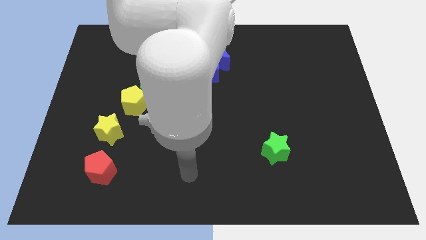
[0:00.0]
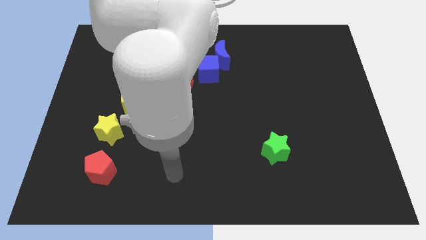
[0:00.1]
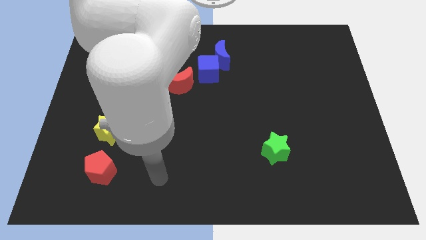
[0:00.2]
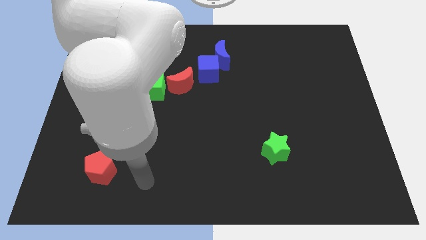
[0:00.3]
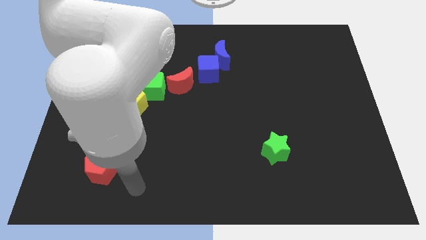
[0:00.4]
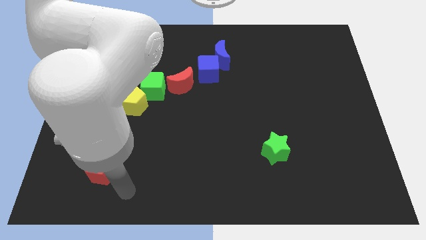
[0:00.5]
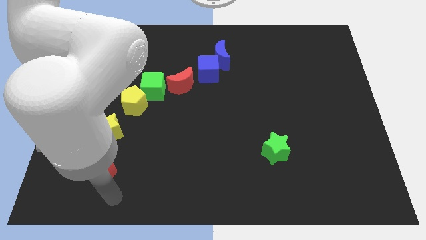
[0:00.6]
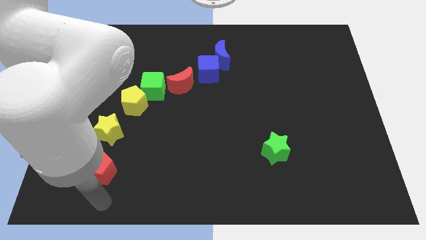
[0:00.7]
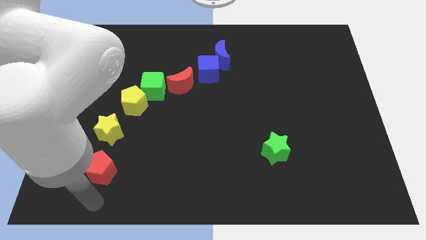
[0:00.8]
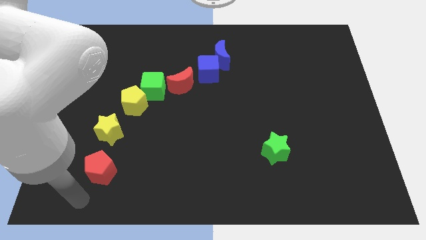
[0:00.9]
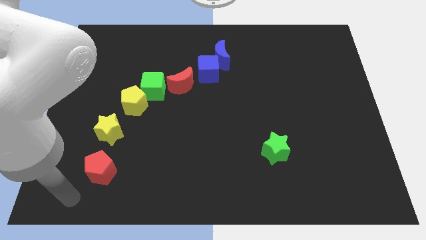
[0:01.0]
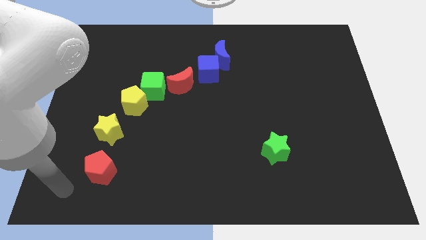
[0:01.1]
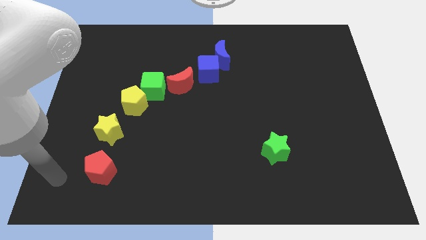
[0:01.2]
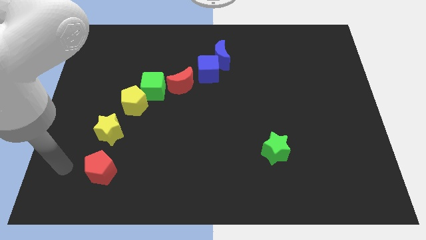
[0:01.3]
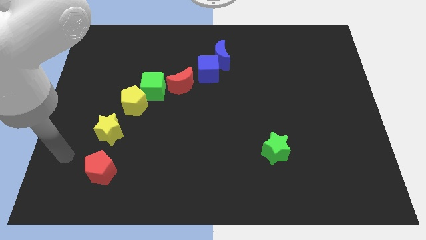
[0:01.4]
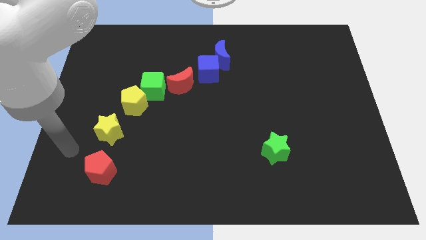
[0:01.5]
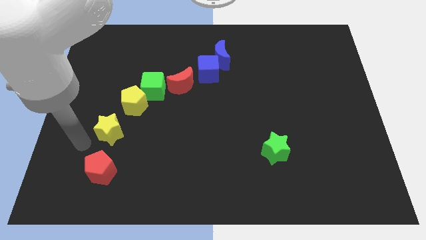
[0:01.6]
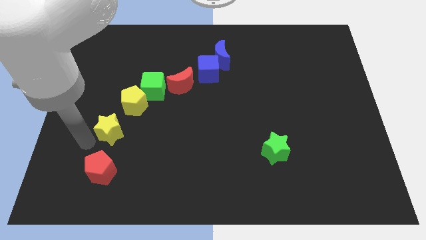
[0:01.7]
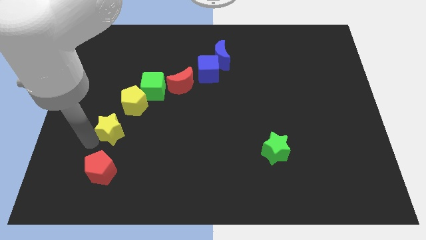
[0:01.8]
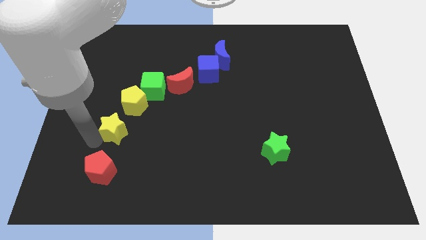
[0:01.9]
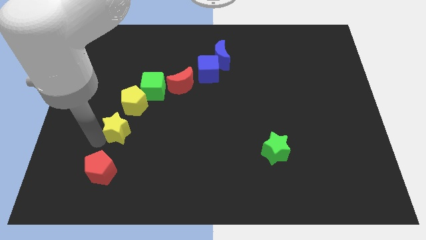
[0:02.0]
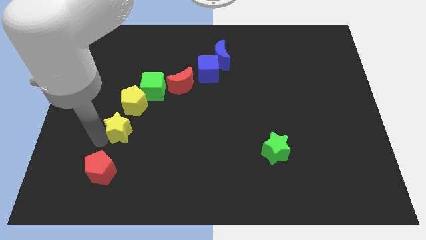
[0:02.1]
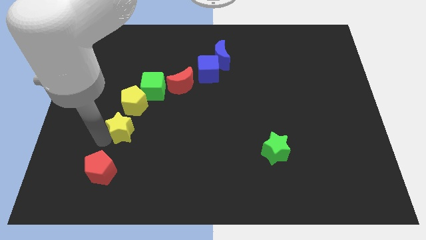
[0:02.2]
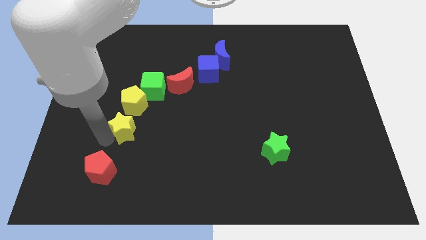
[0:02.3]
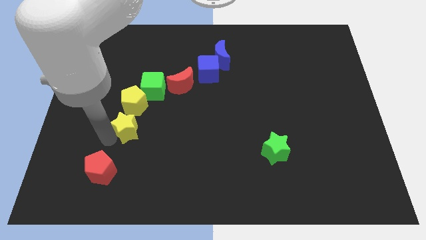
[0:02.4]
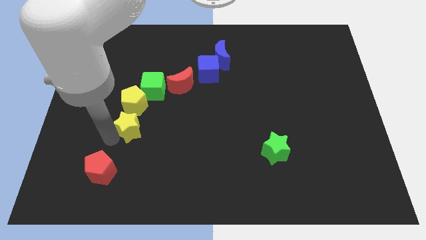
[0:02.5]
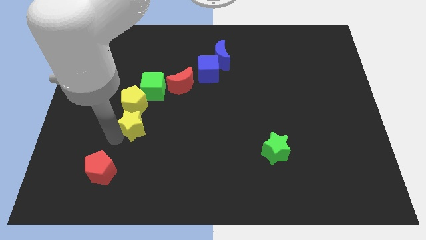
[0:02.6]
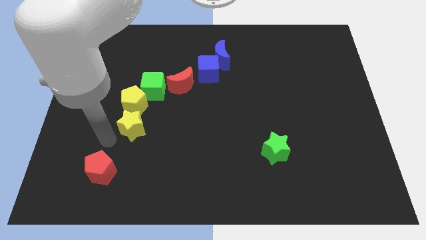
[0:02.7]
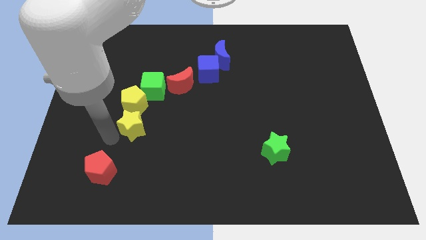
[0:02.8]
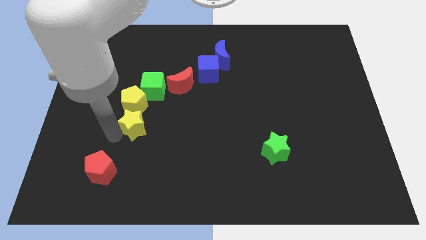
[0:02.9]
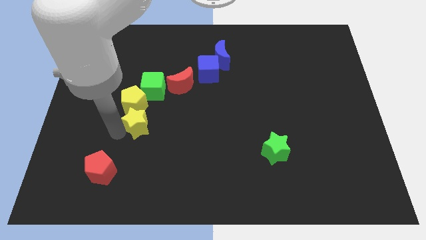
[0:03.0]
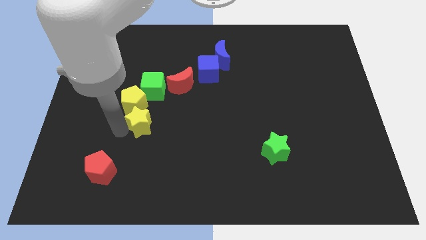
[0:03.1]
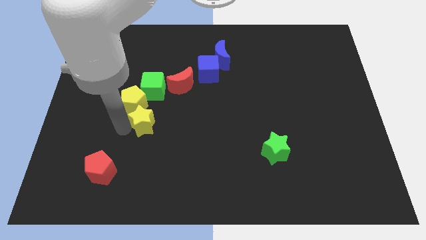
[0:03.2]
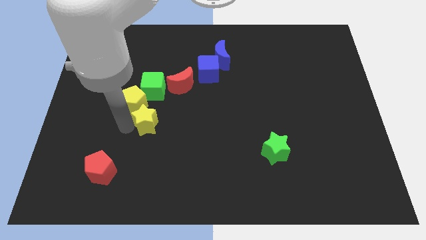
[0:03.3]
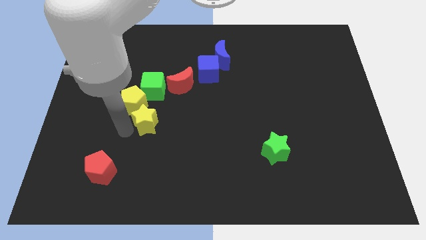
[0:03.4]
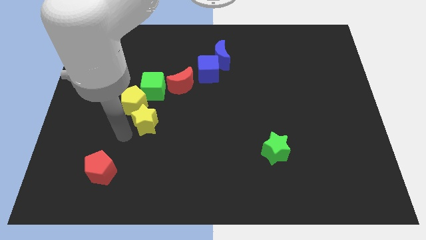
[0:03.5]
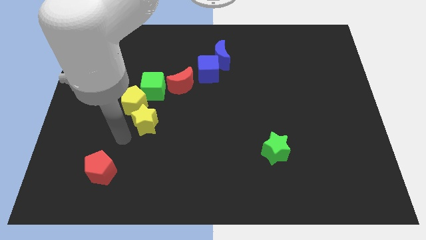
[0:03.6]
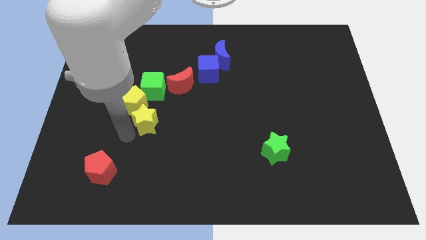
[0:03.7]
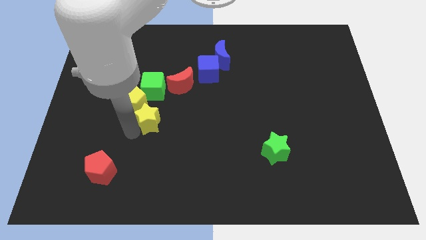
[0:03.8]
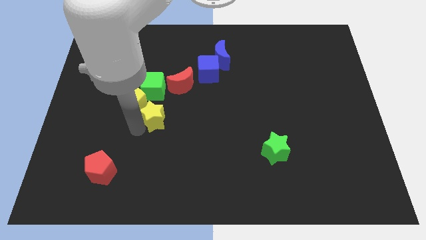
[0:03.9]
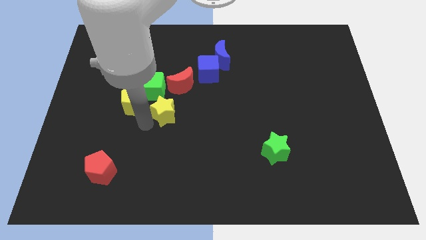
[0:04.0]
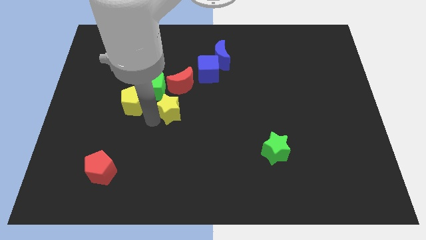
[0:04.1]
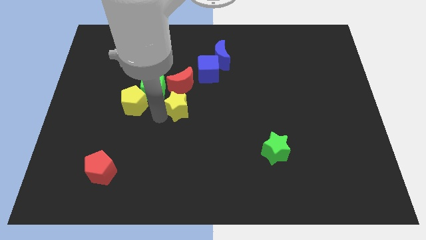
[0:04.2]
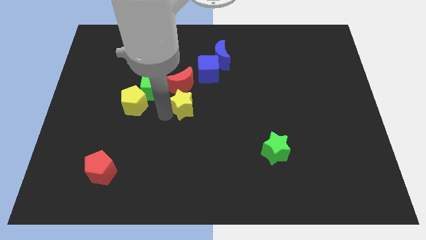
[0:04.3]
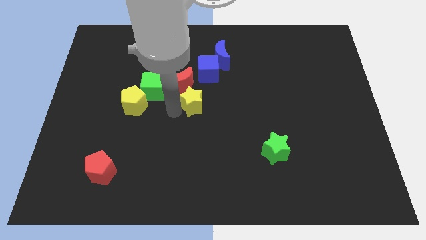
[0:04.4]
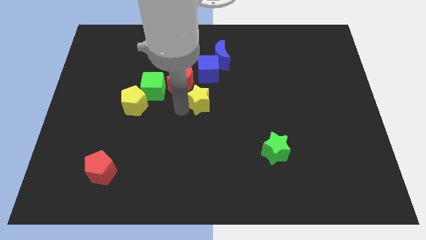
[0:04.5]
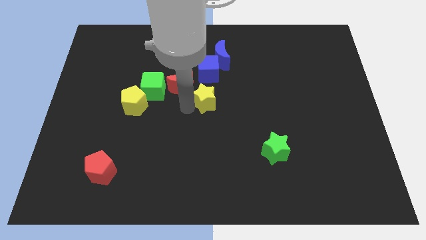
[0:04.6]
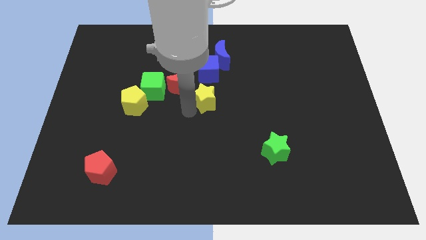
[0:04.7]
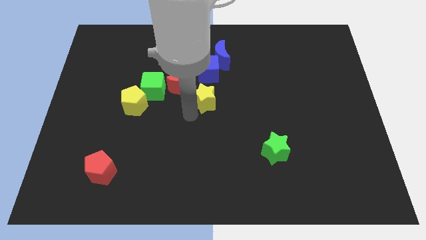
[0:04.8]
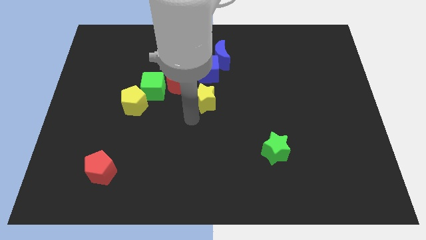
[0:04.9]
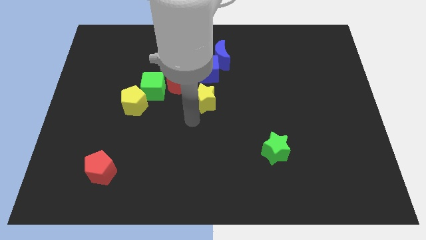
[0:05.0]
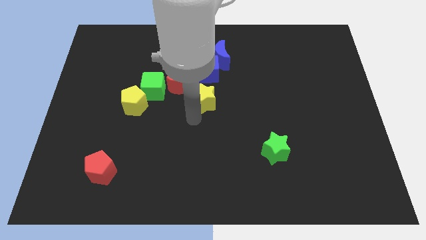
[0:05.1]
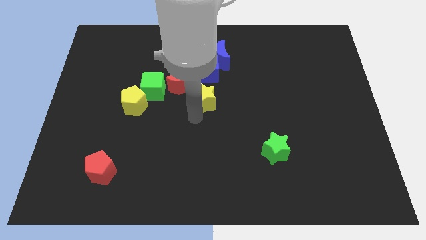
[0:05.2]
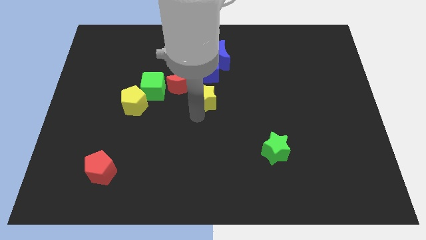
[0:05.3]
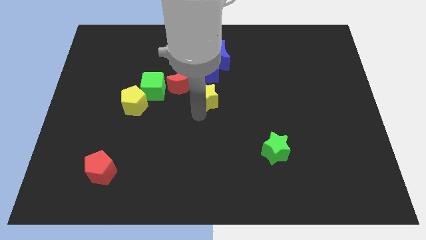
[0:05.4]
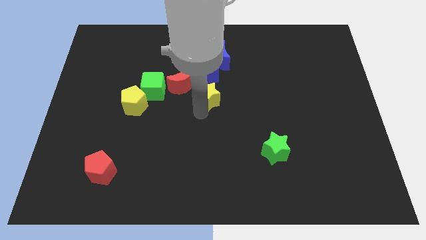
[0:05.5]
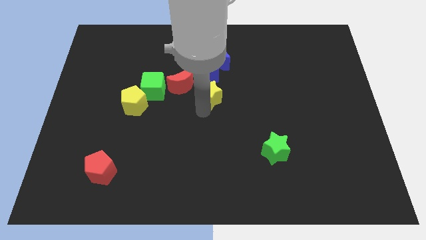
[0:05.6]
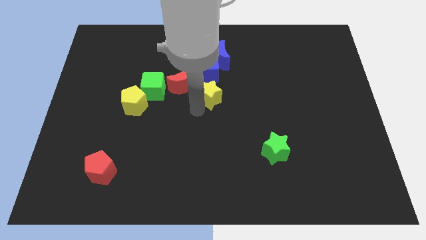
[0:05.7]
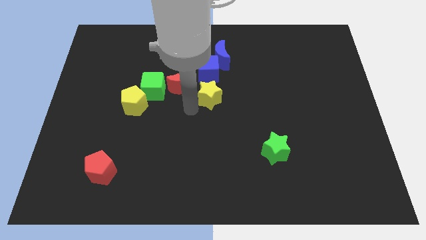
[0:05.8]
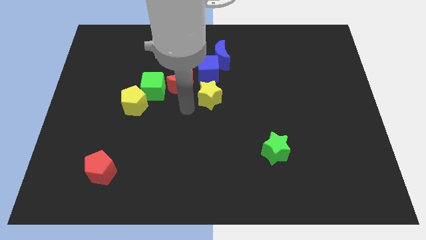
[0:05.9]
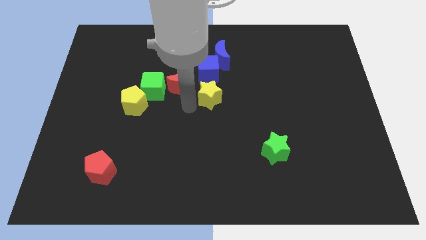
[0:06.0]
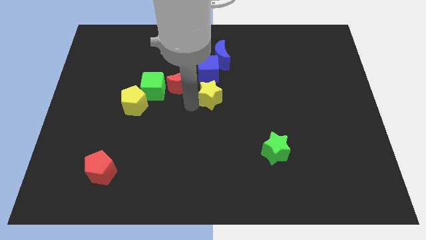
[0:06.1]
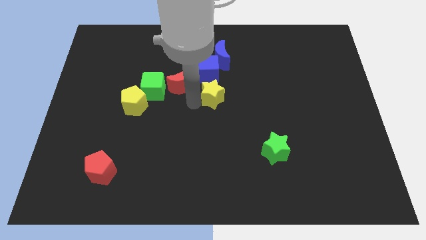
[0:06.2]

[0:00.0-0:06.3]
push the yellow star to the bottom right side of the blue cube
